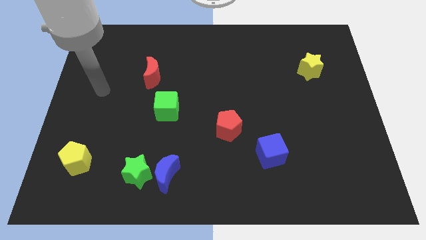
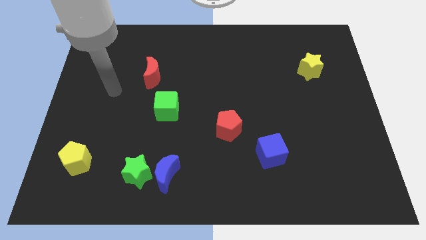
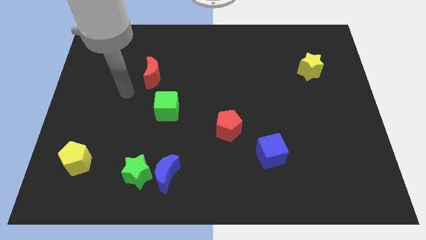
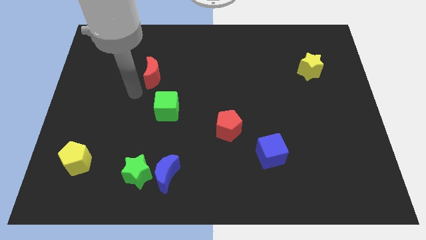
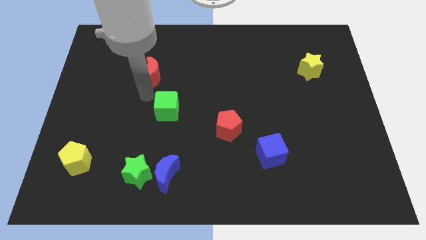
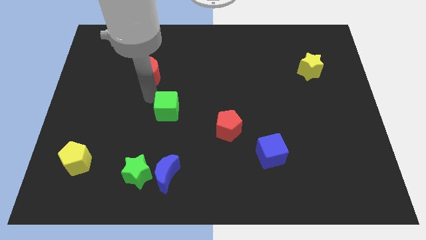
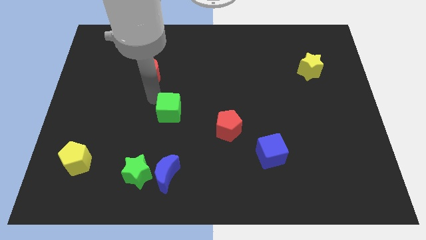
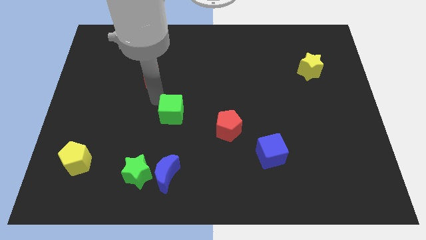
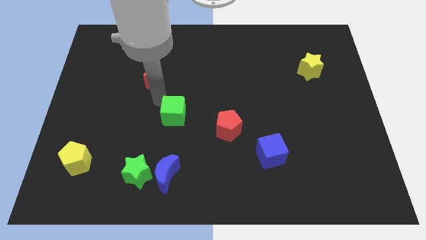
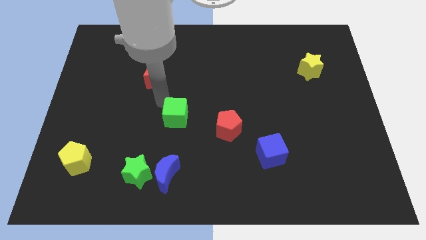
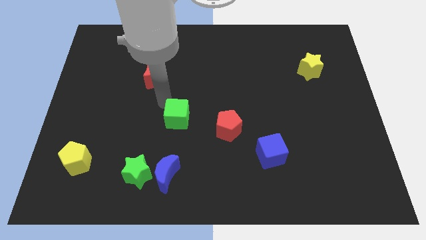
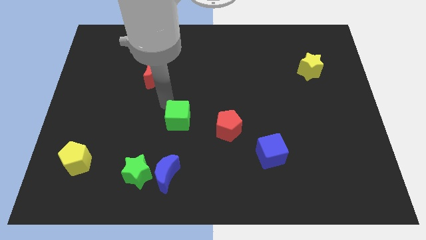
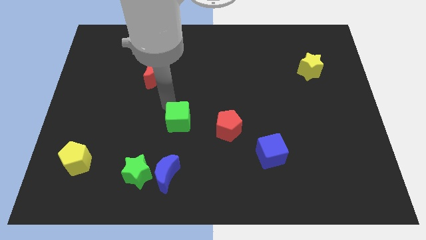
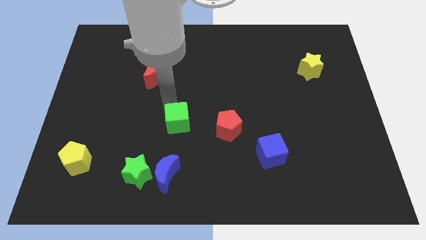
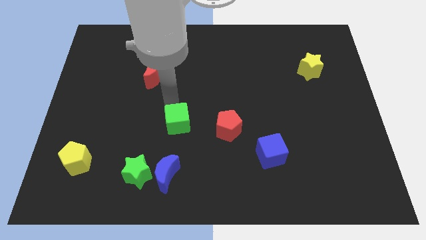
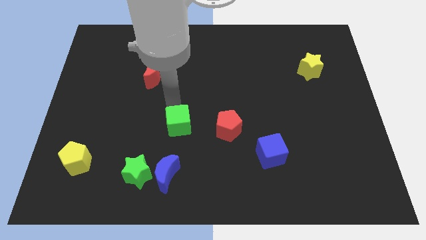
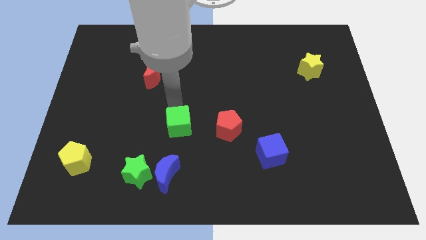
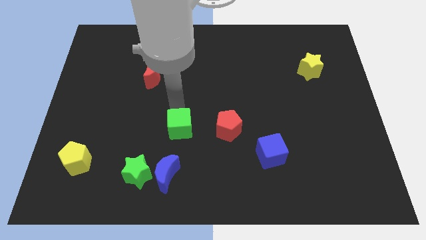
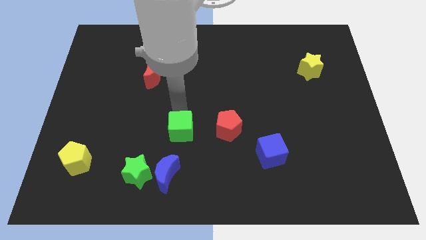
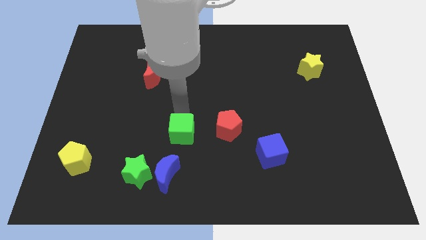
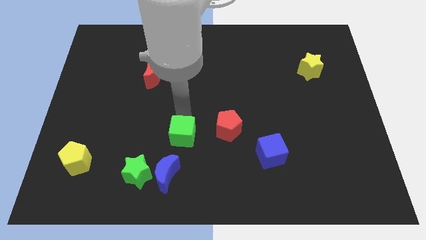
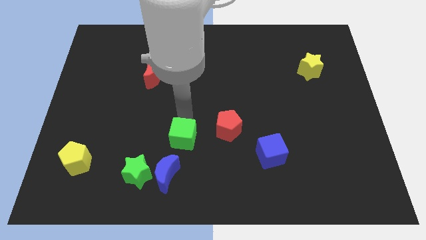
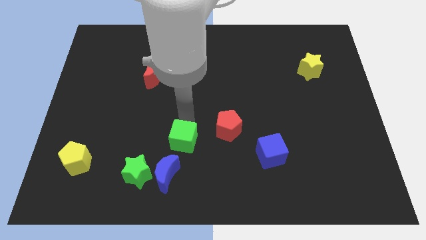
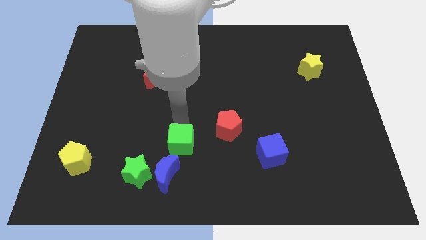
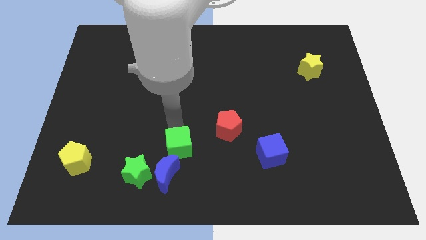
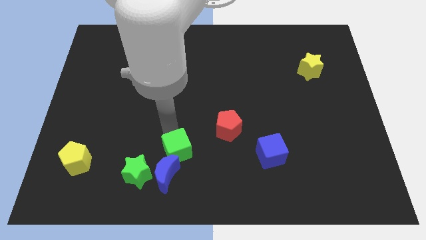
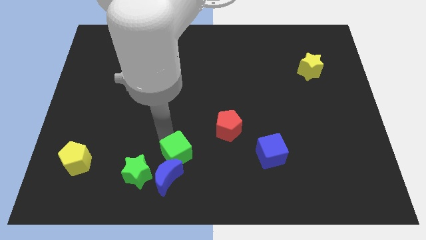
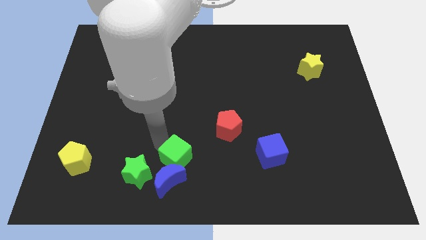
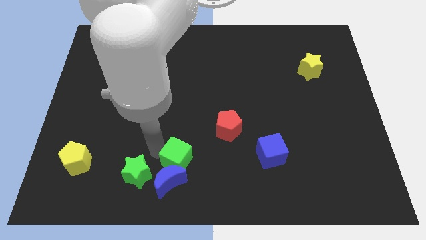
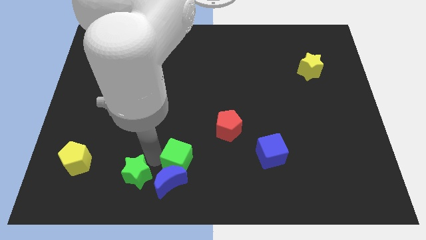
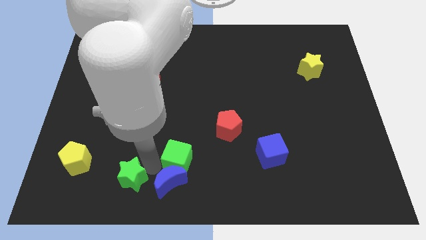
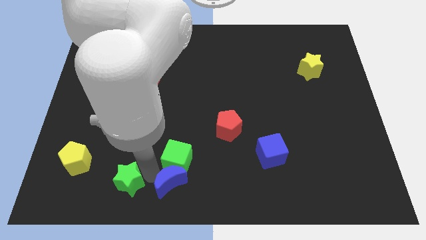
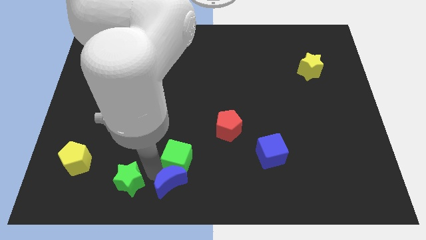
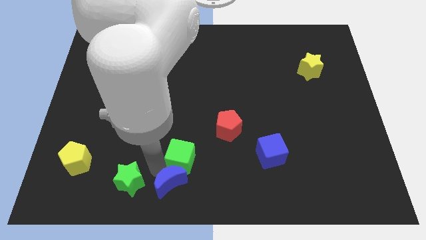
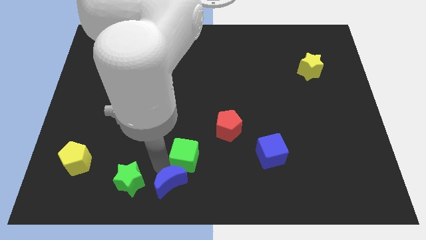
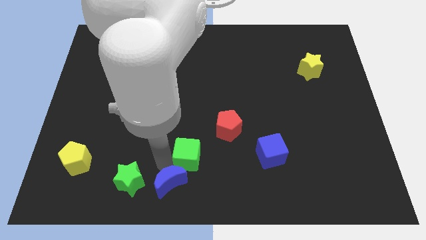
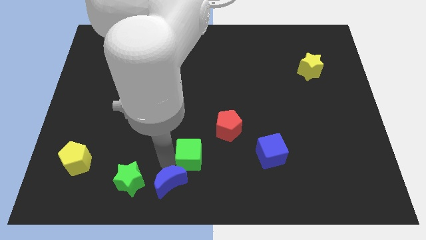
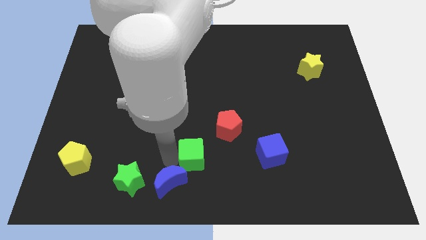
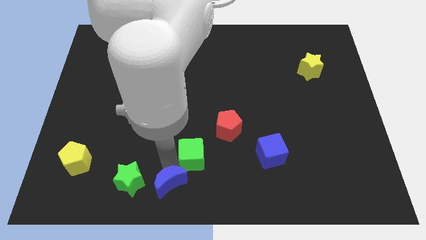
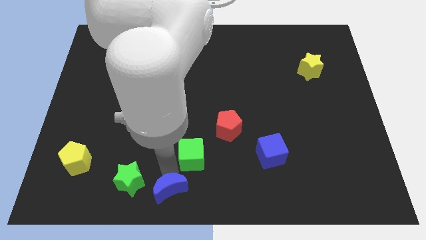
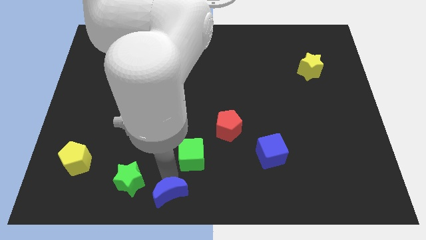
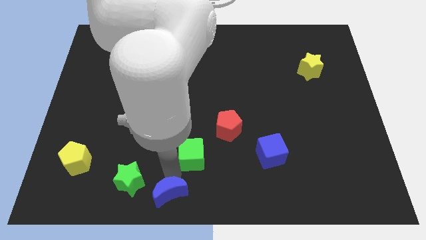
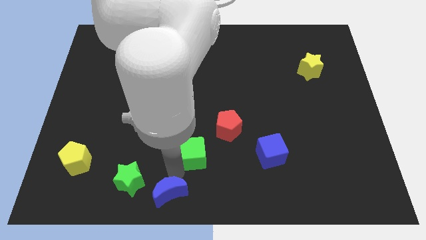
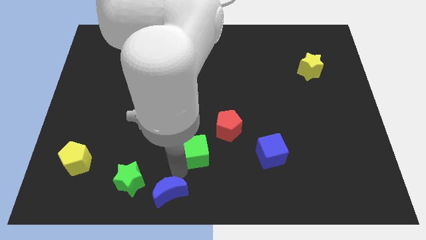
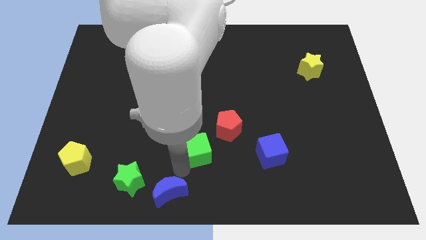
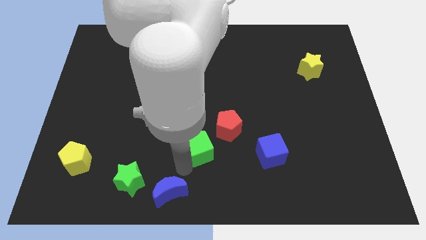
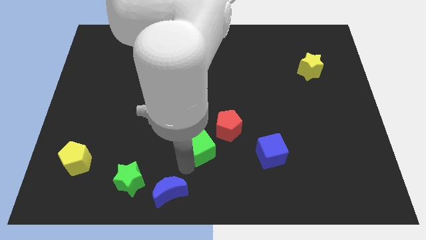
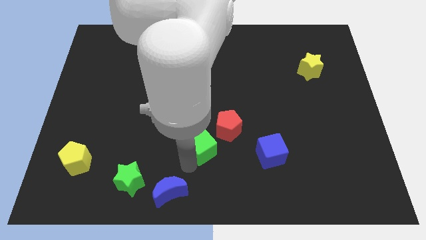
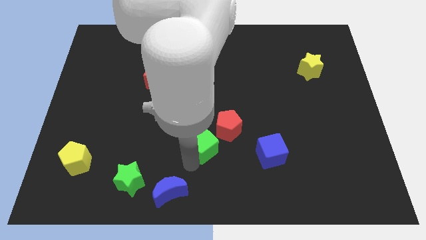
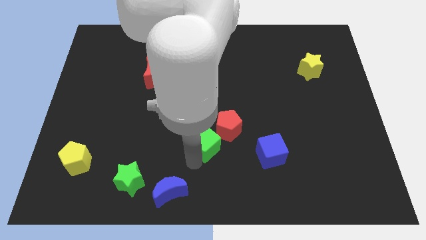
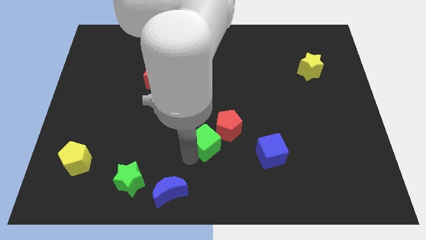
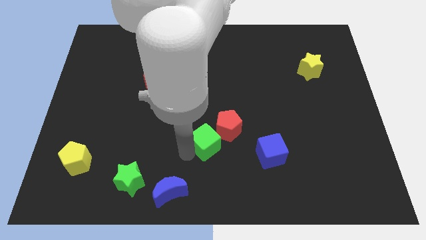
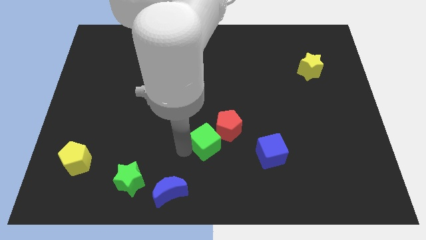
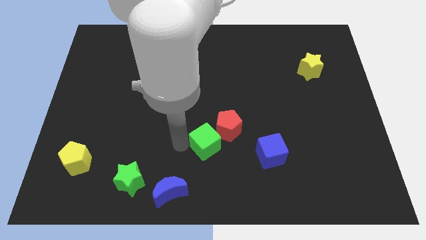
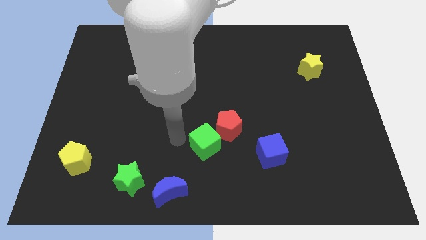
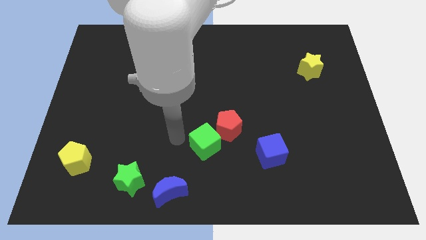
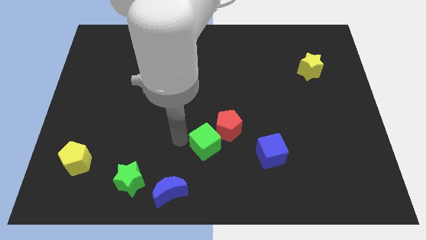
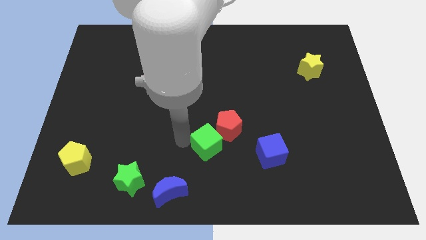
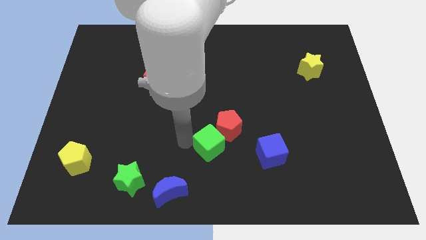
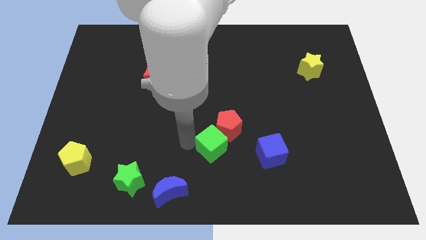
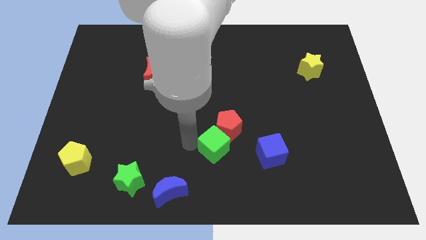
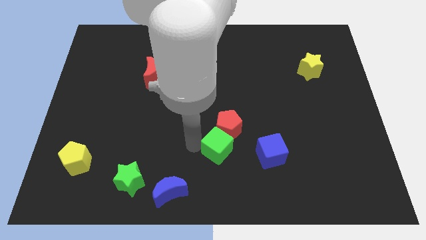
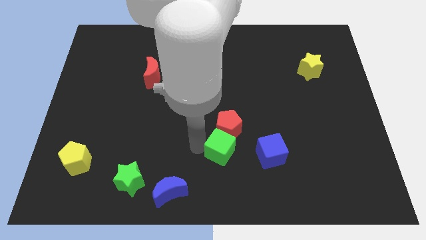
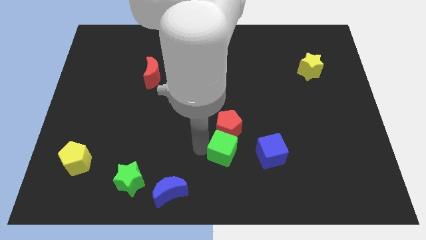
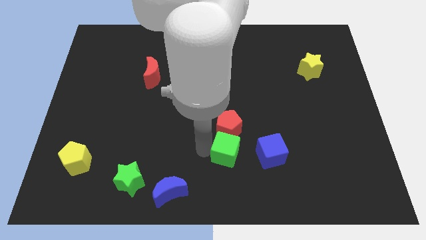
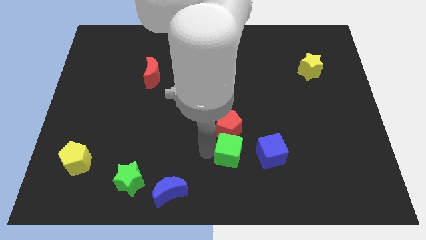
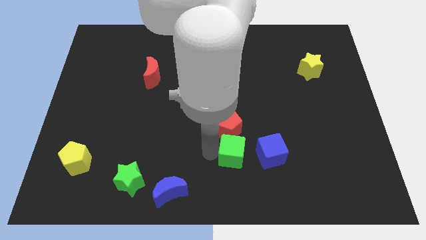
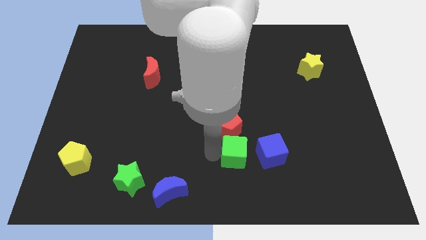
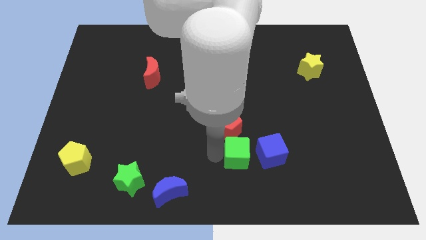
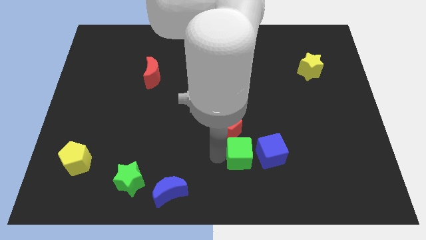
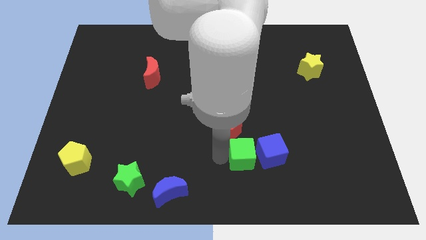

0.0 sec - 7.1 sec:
put the green cube to the blue cube
